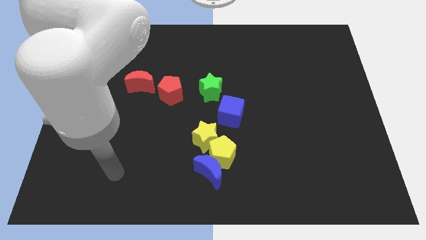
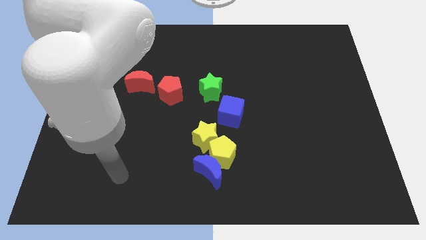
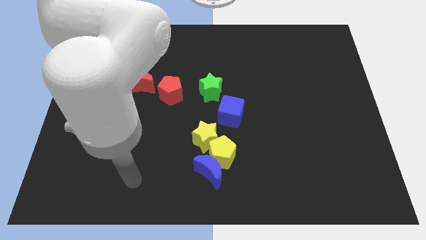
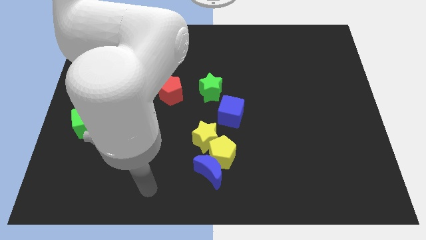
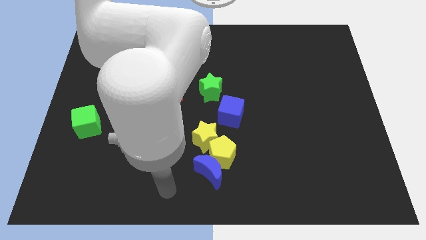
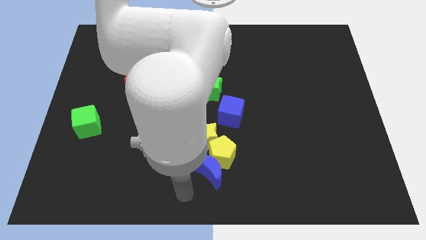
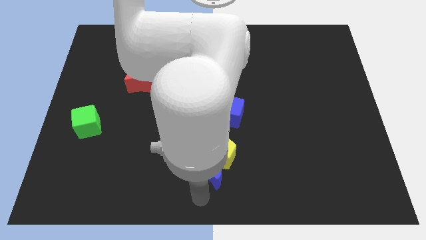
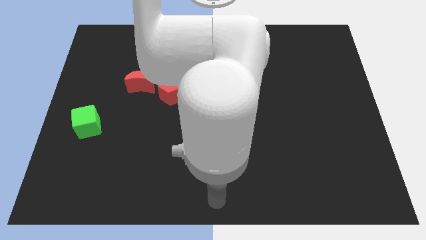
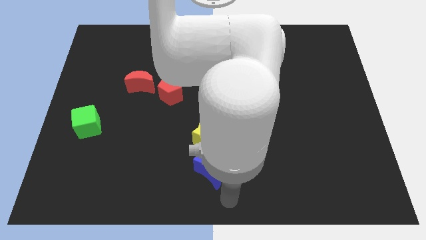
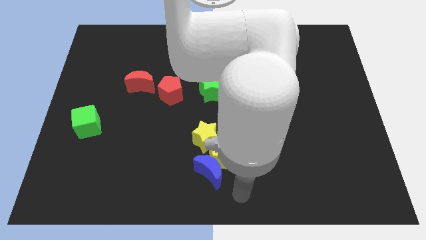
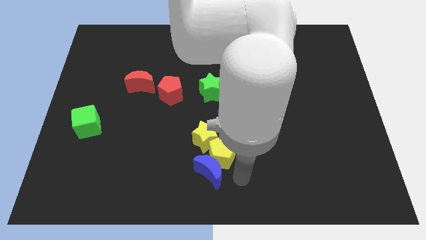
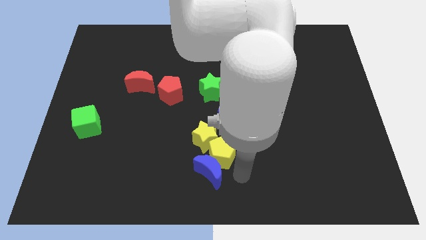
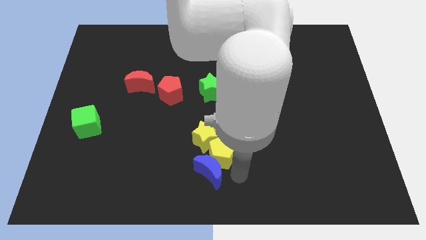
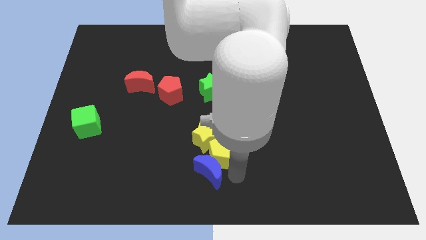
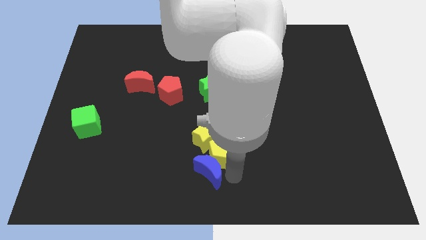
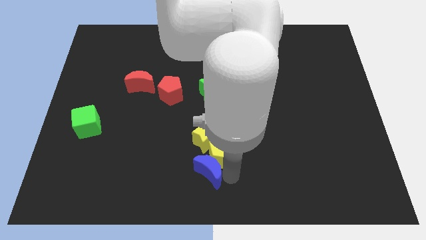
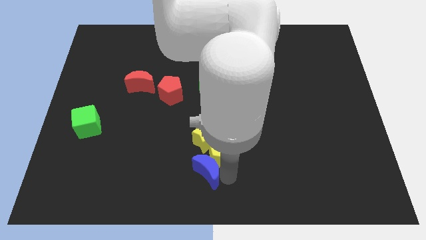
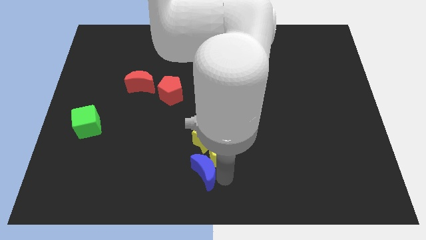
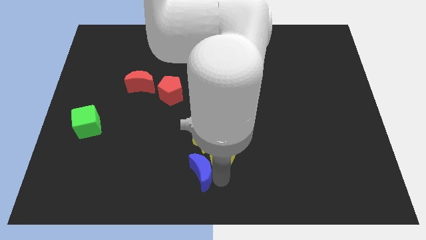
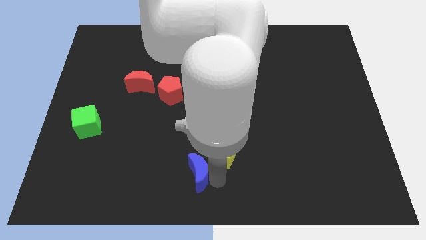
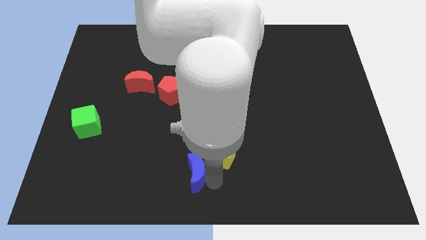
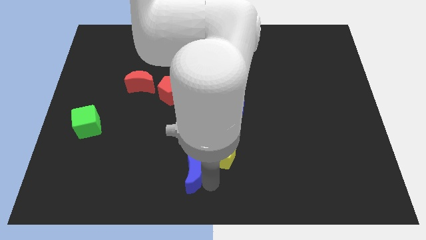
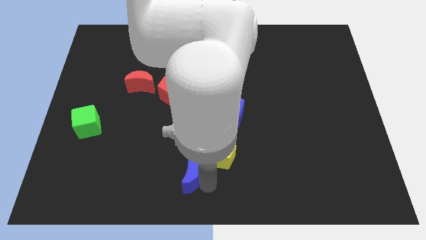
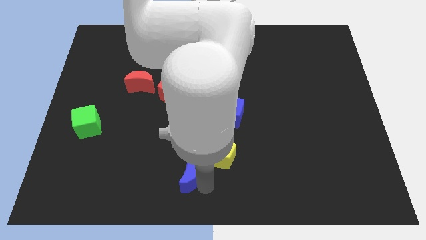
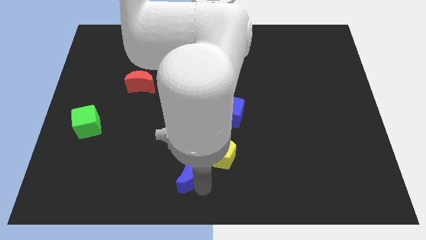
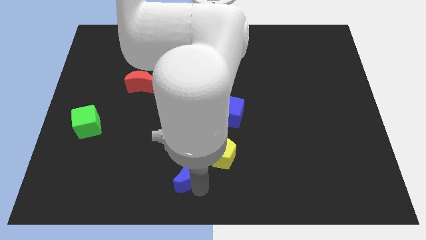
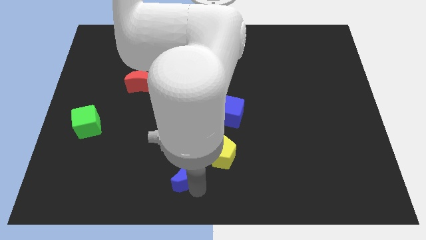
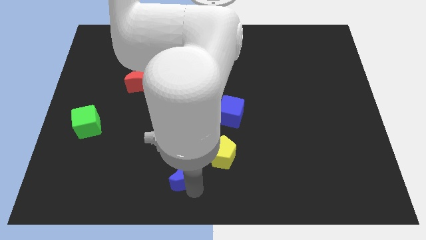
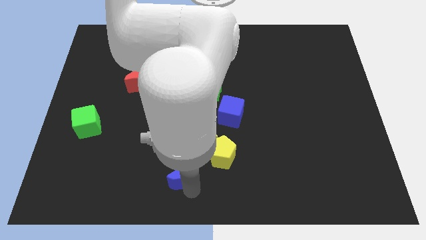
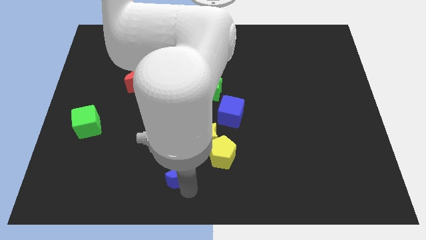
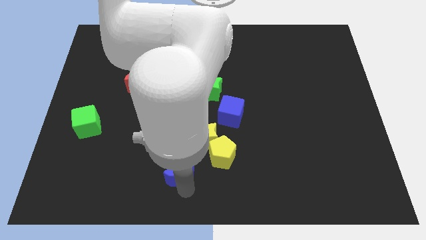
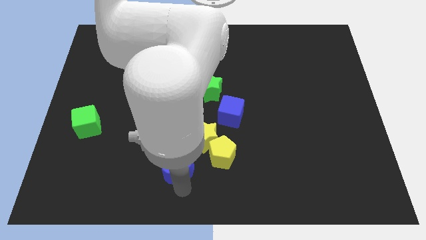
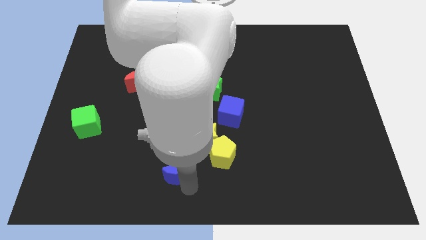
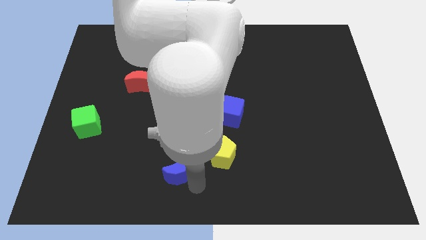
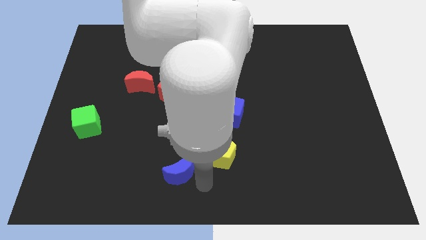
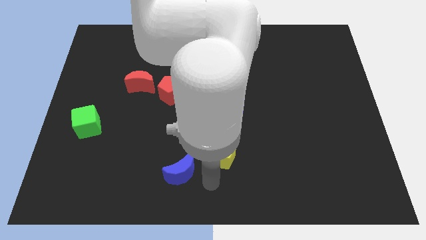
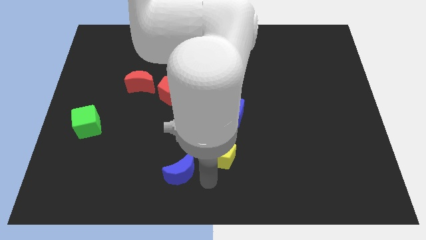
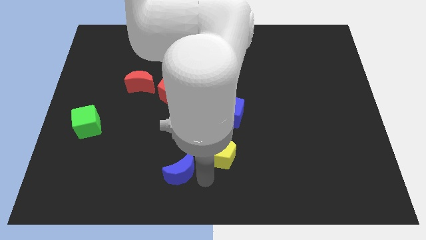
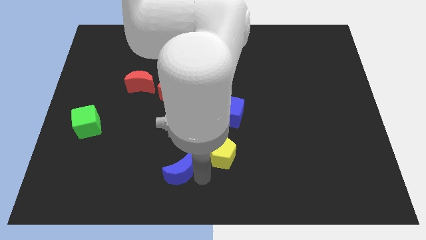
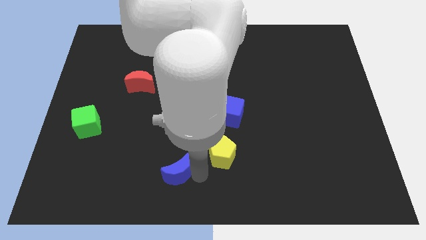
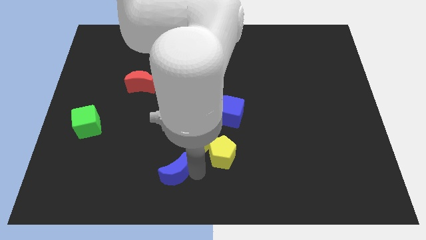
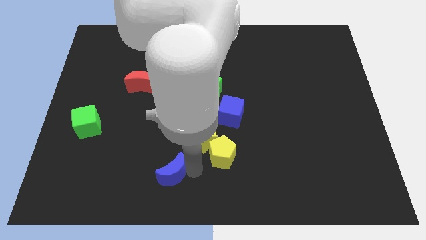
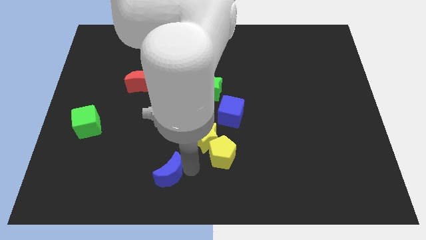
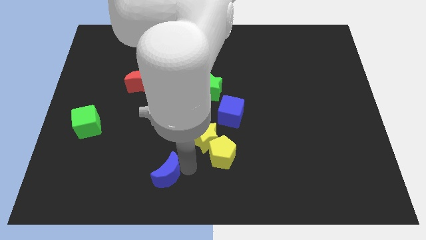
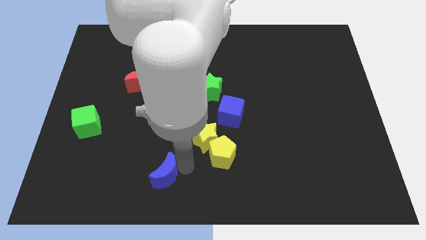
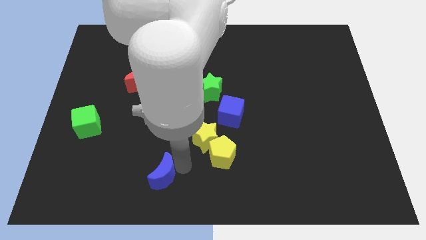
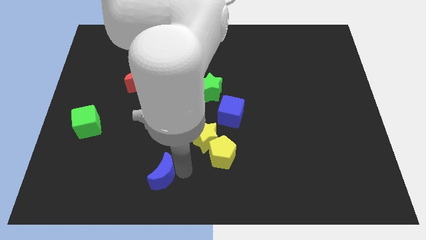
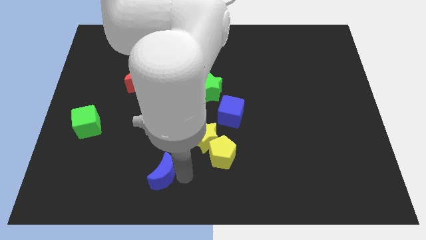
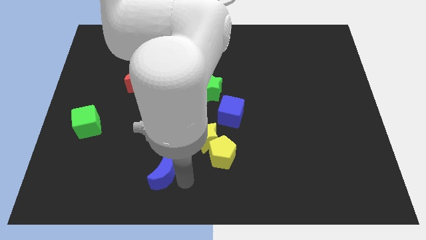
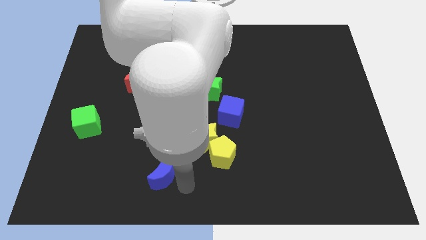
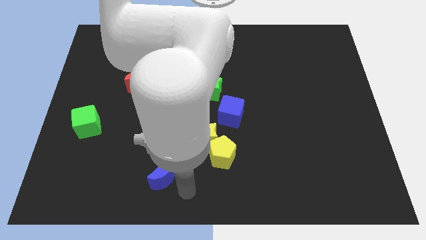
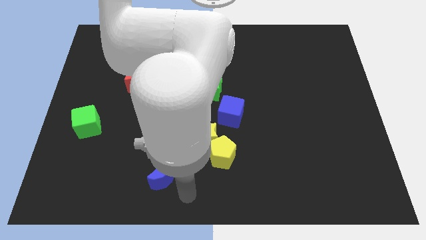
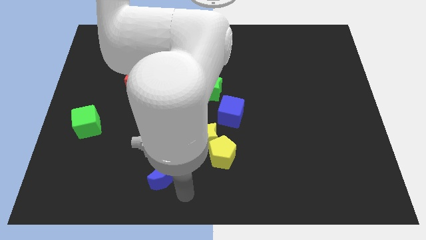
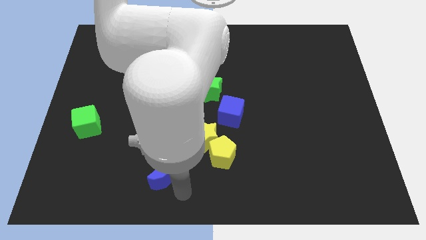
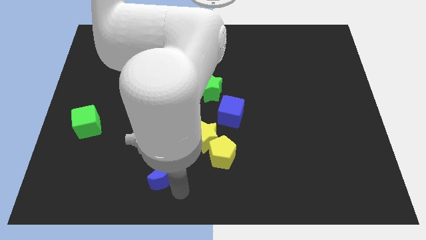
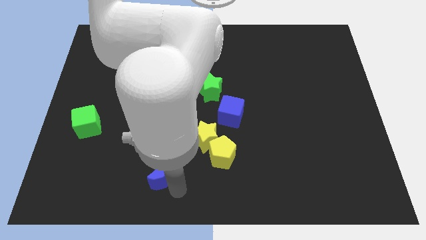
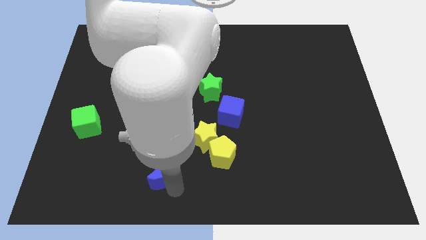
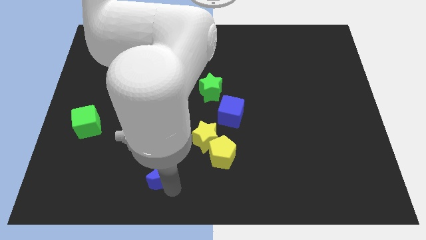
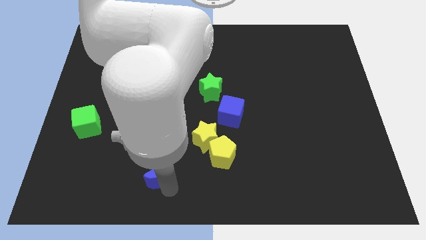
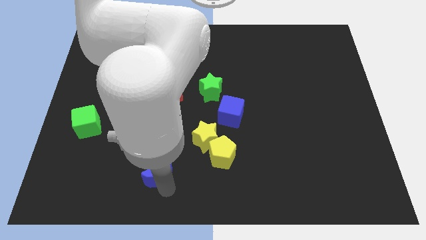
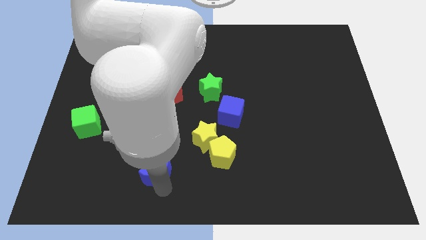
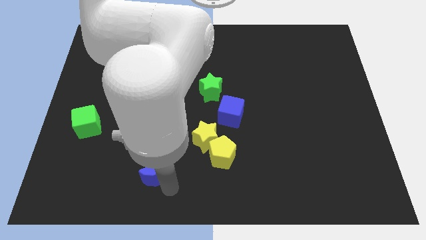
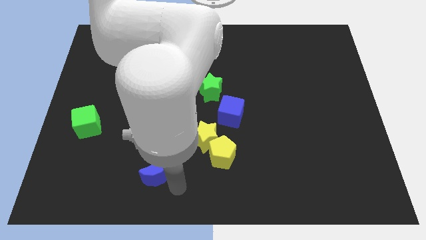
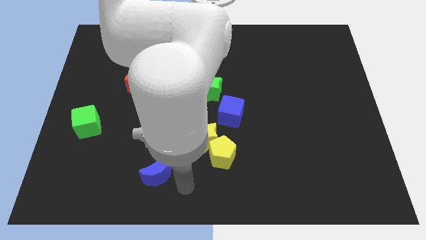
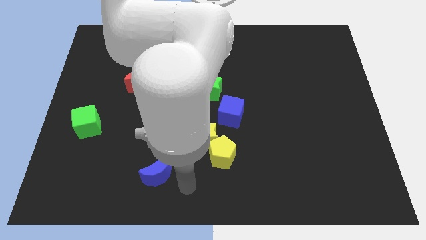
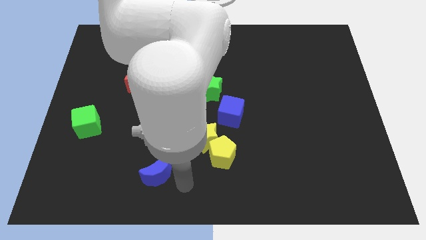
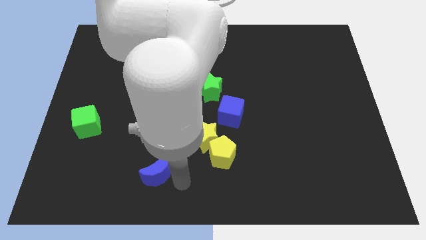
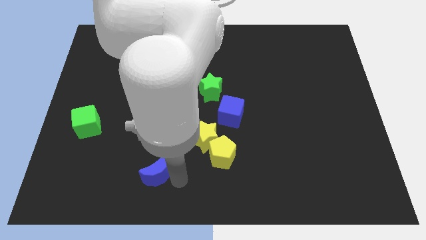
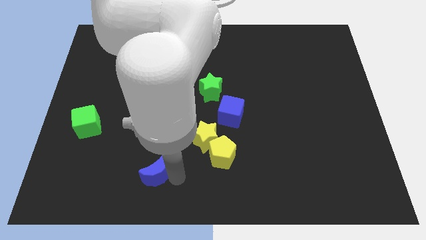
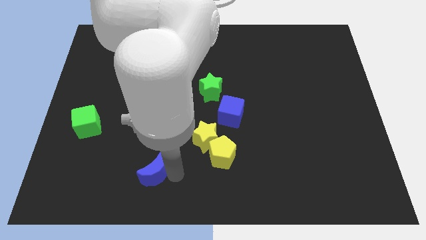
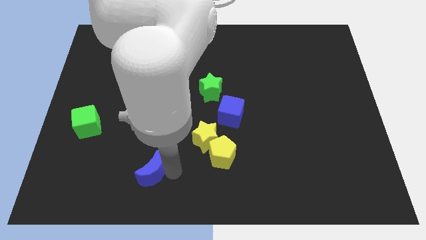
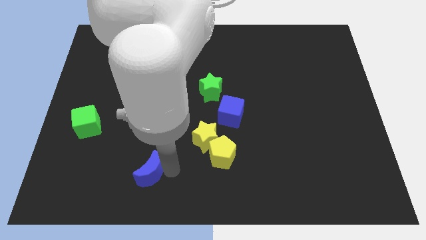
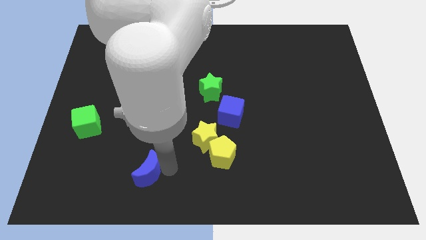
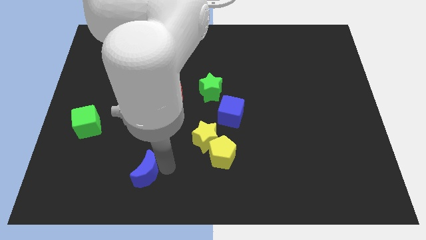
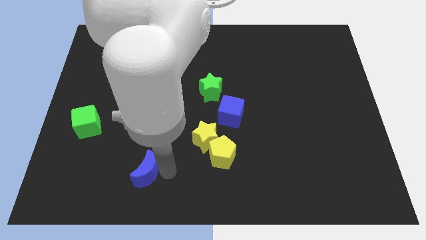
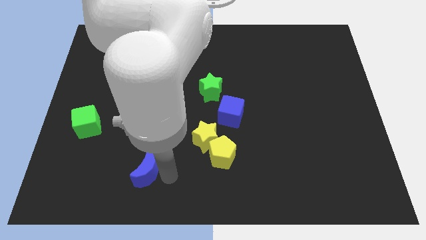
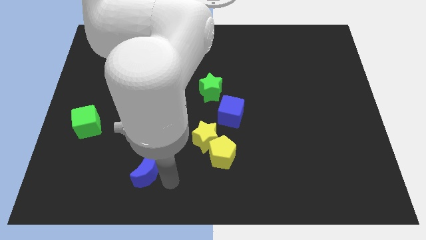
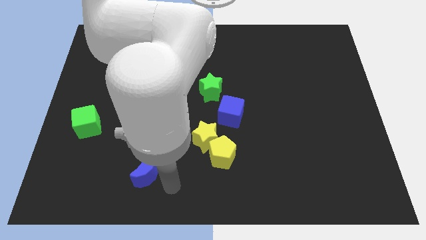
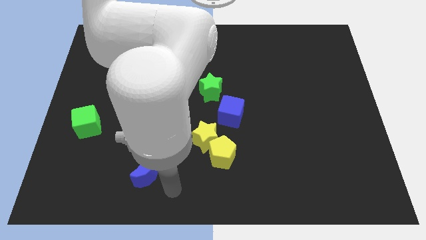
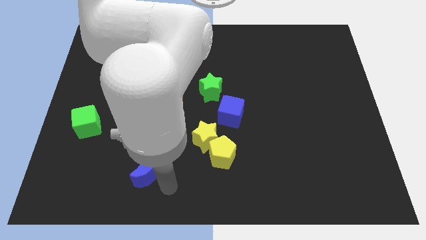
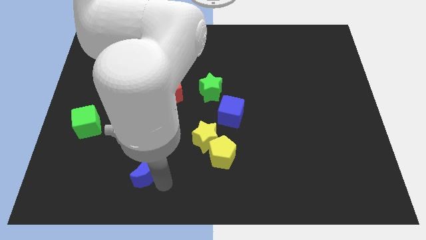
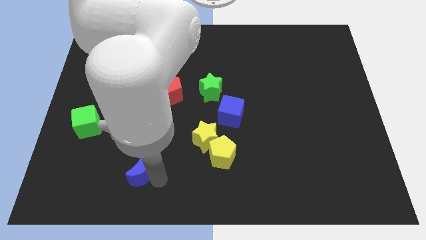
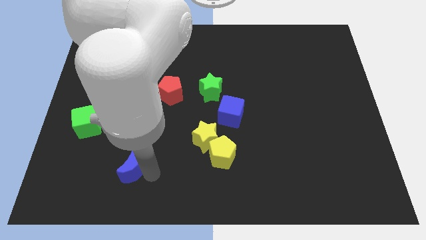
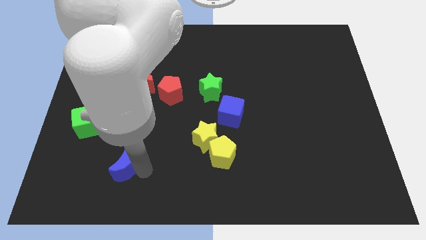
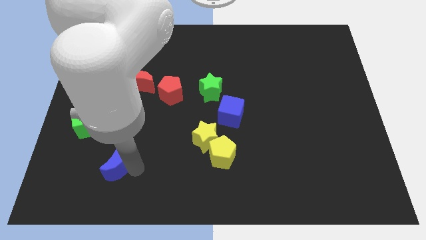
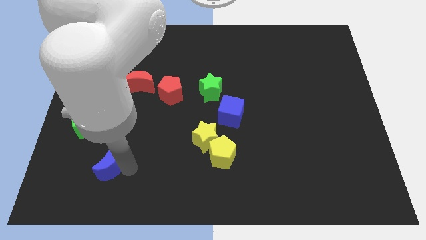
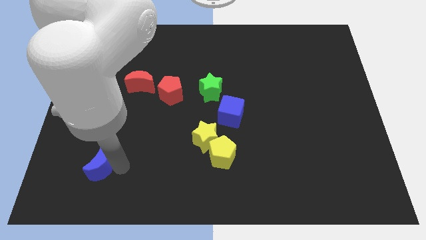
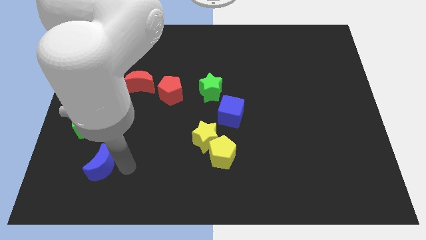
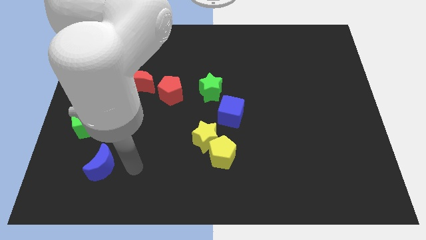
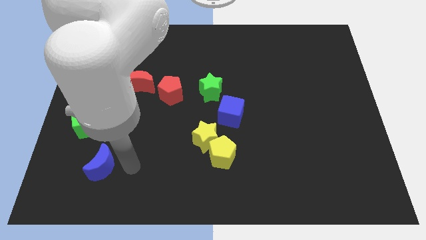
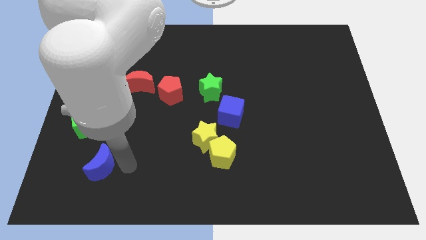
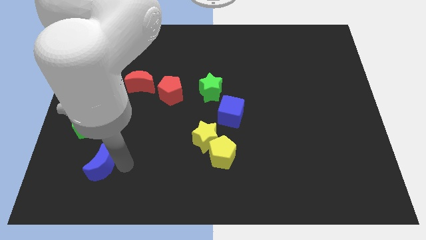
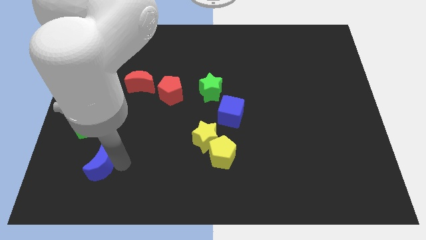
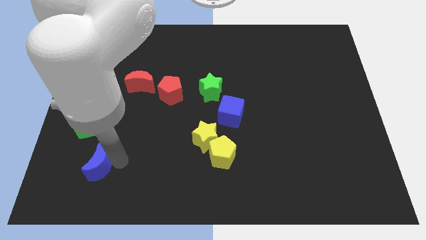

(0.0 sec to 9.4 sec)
move the blue moon to the bottom of the green cube
